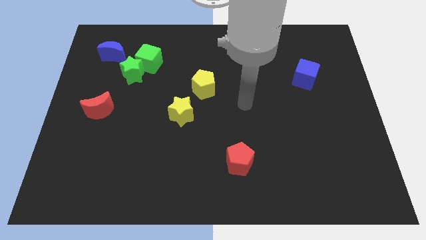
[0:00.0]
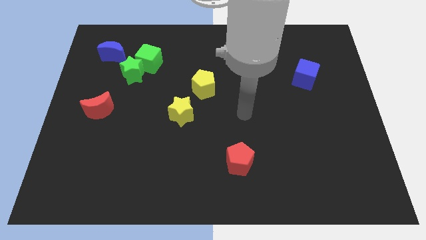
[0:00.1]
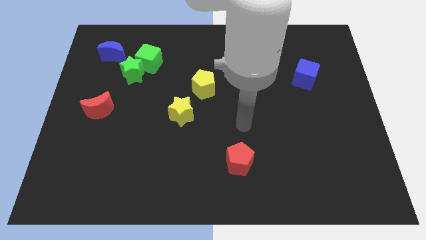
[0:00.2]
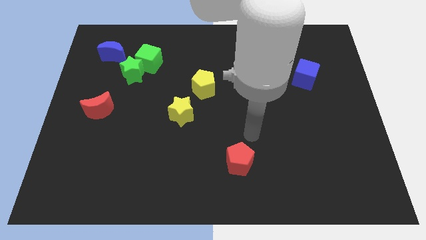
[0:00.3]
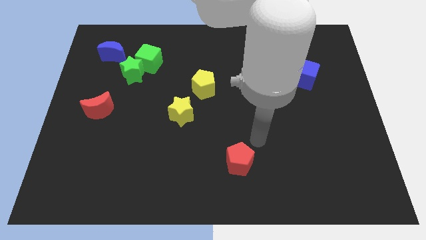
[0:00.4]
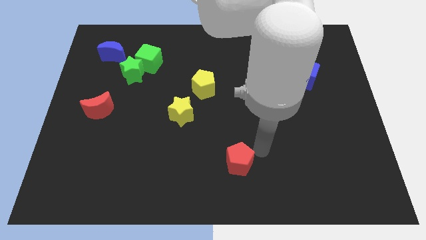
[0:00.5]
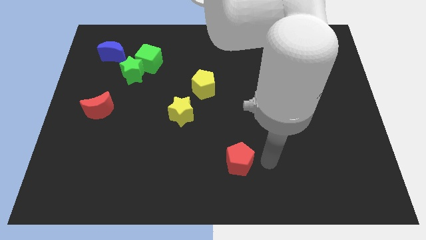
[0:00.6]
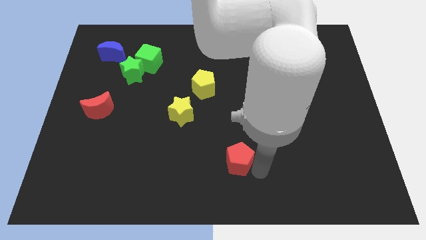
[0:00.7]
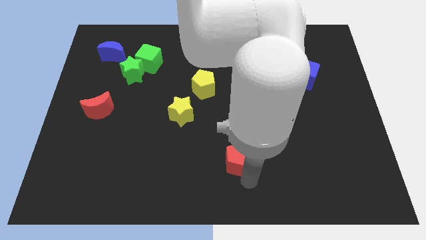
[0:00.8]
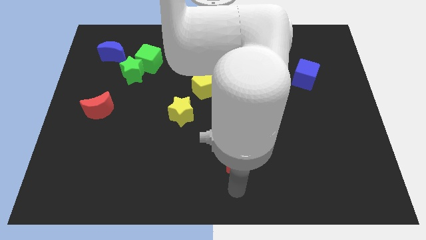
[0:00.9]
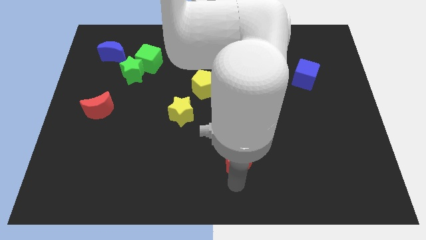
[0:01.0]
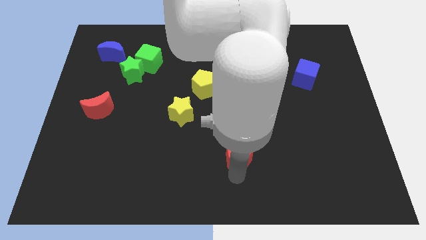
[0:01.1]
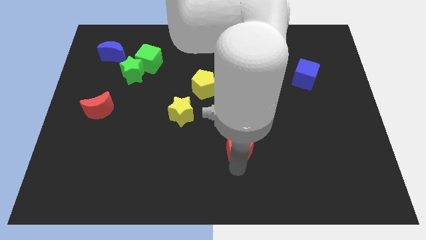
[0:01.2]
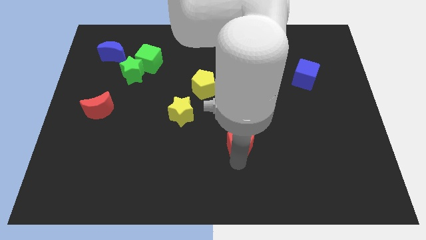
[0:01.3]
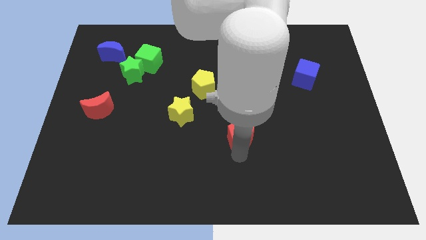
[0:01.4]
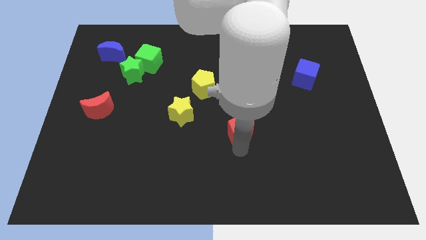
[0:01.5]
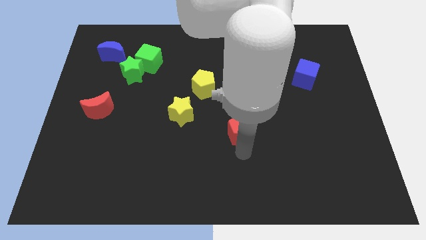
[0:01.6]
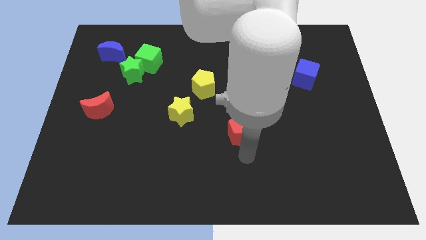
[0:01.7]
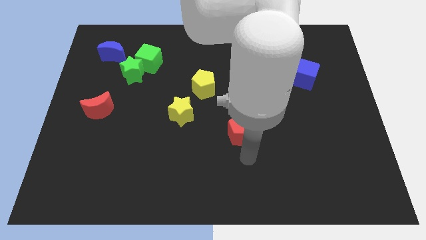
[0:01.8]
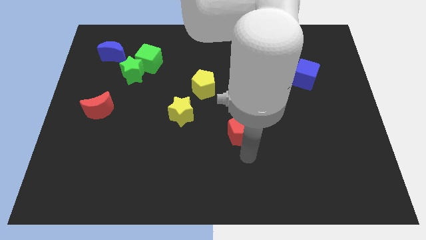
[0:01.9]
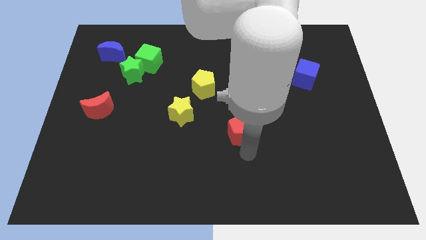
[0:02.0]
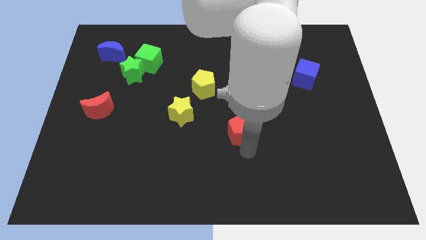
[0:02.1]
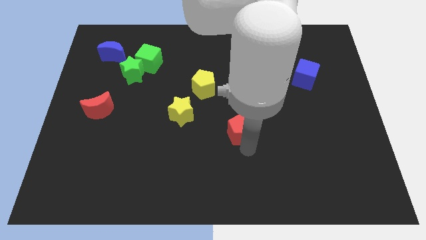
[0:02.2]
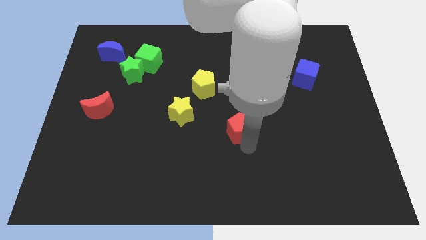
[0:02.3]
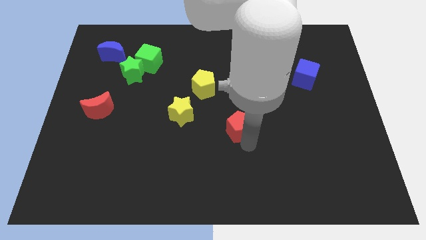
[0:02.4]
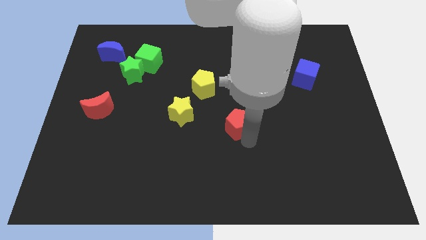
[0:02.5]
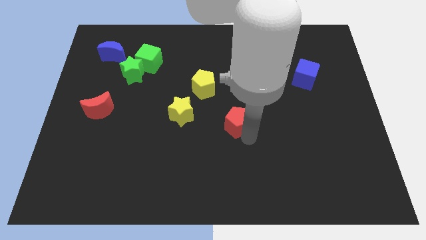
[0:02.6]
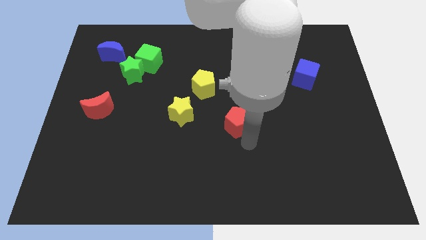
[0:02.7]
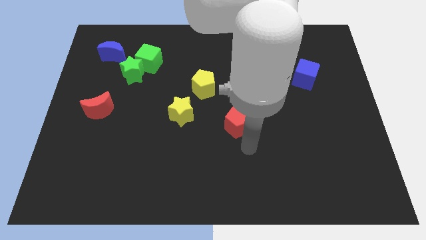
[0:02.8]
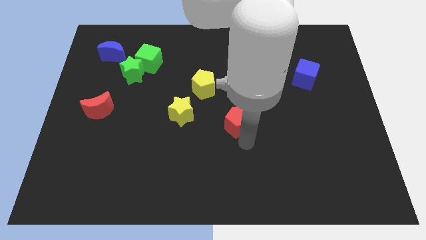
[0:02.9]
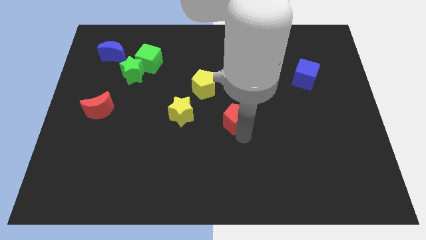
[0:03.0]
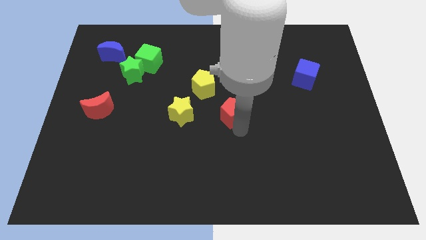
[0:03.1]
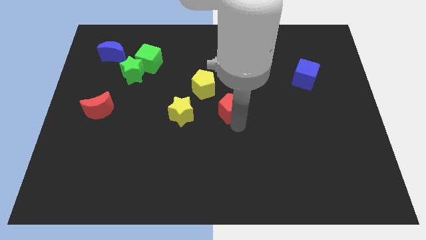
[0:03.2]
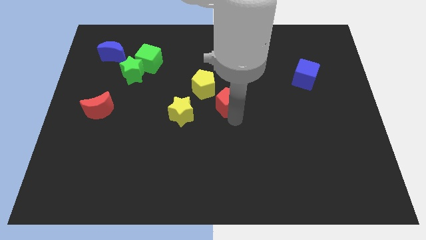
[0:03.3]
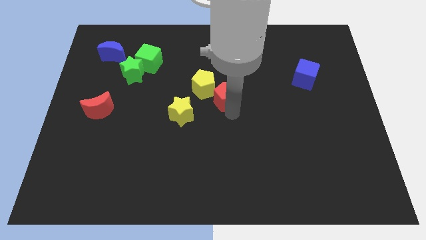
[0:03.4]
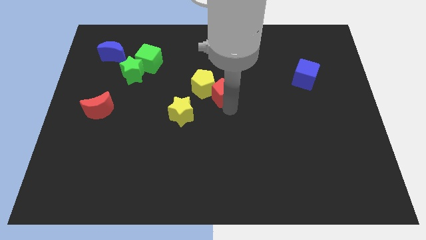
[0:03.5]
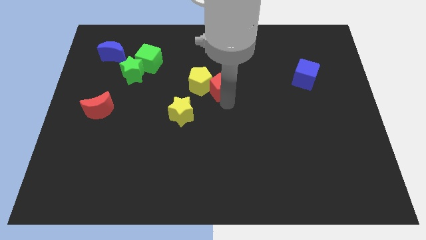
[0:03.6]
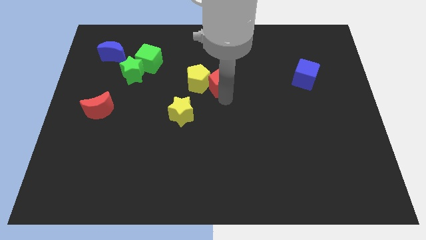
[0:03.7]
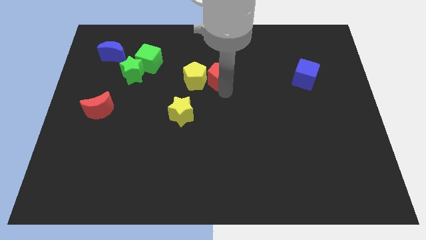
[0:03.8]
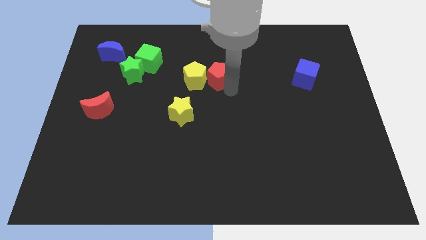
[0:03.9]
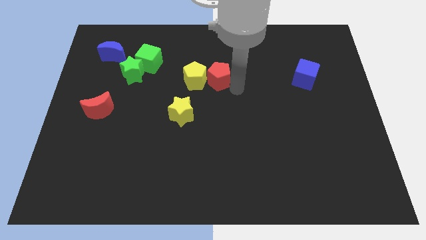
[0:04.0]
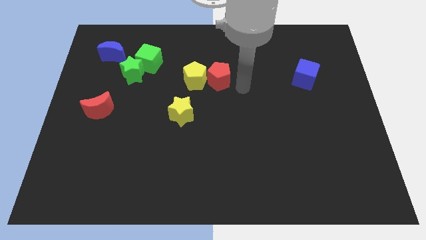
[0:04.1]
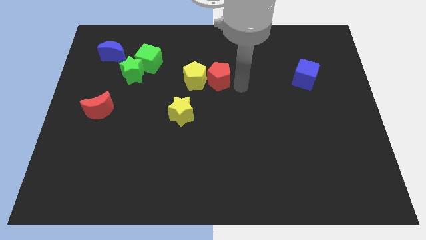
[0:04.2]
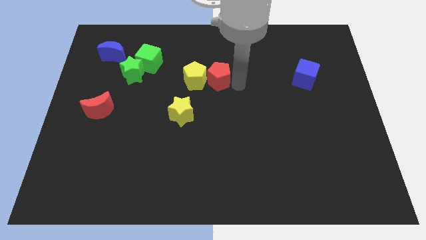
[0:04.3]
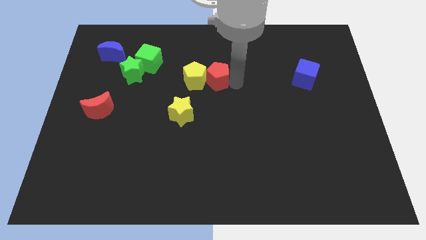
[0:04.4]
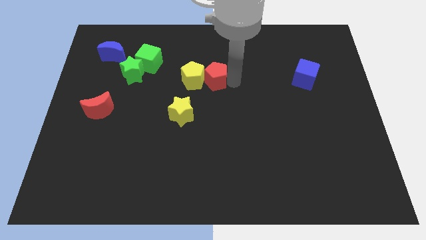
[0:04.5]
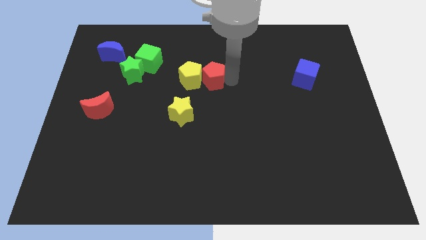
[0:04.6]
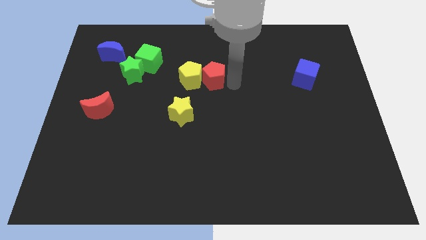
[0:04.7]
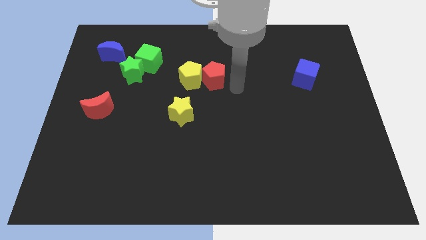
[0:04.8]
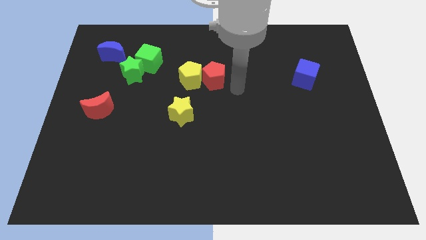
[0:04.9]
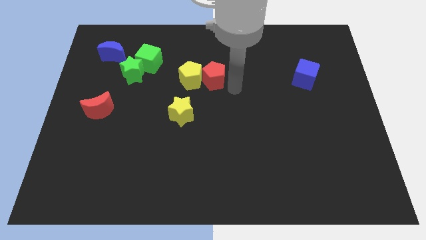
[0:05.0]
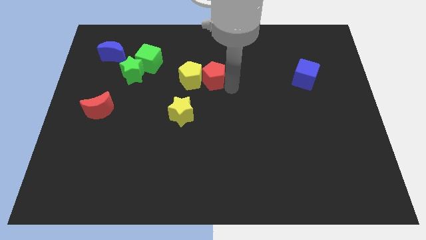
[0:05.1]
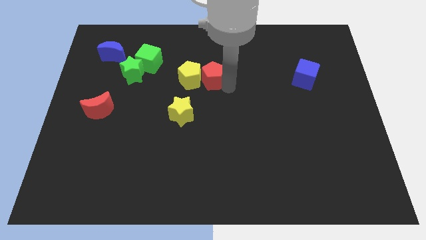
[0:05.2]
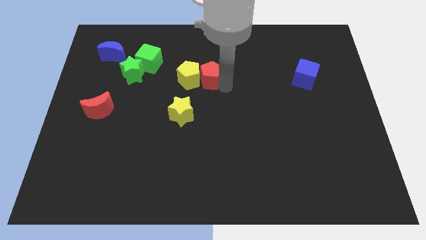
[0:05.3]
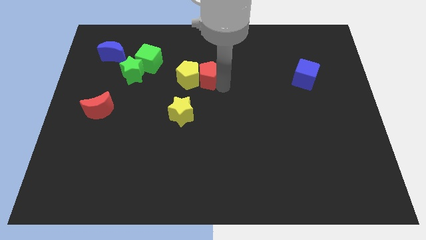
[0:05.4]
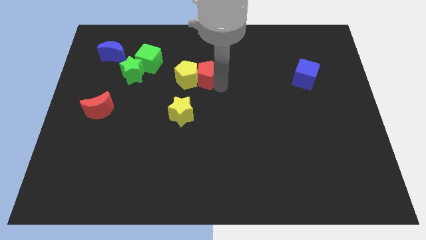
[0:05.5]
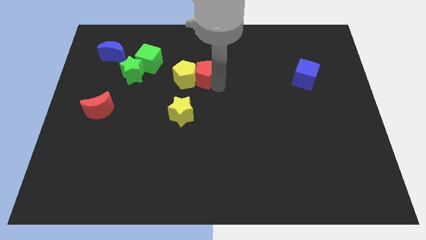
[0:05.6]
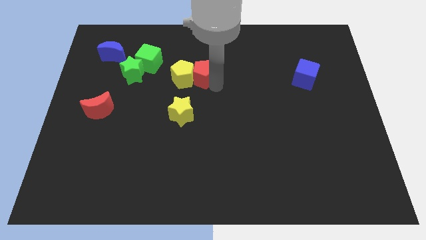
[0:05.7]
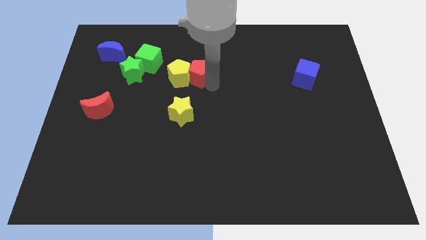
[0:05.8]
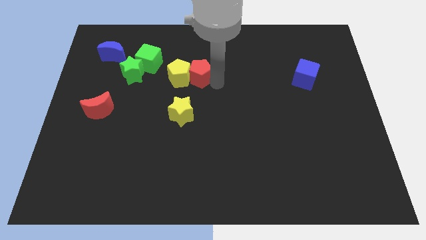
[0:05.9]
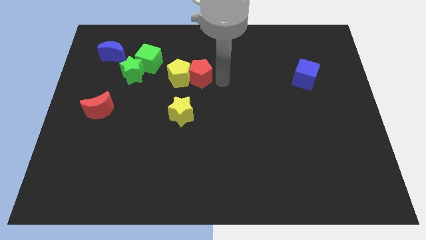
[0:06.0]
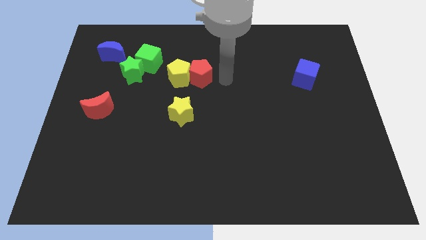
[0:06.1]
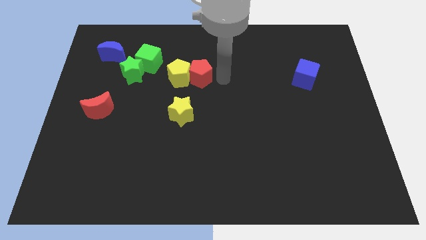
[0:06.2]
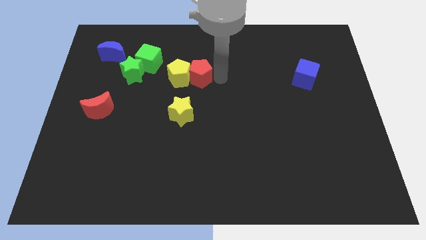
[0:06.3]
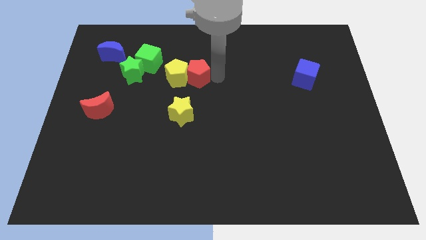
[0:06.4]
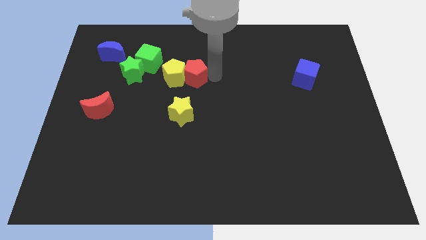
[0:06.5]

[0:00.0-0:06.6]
put the red pentagon to the right side of the green star
